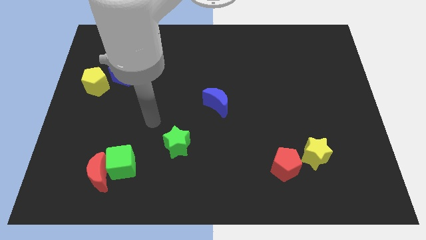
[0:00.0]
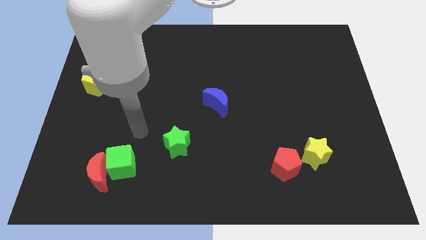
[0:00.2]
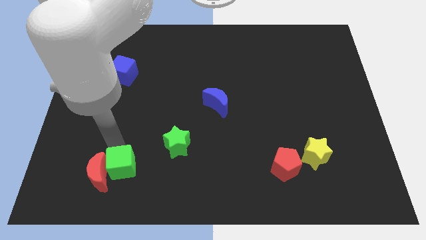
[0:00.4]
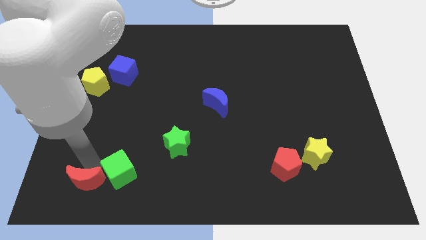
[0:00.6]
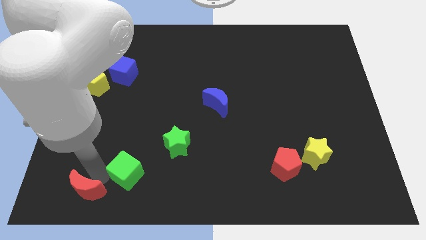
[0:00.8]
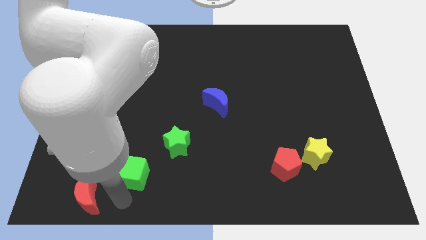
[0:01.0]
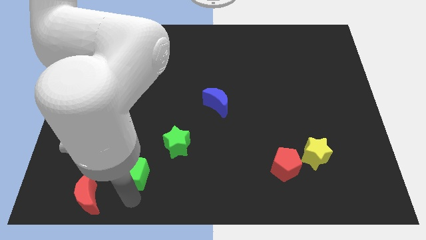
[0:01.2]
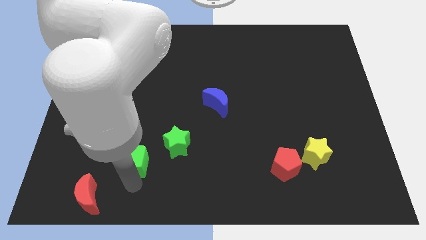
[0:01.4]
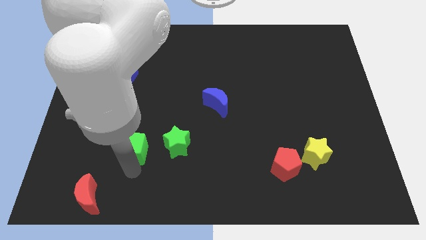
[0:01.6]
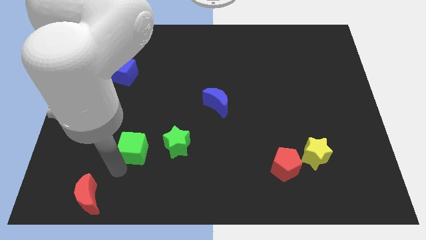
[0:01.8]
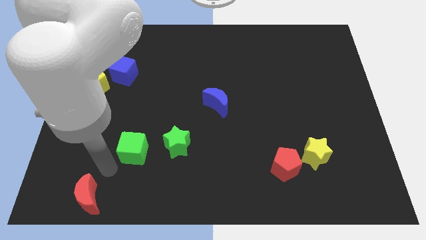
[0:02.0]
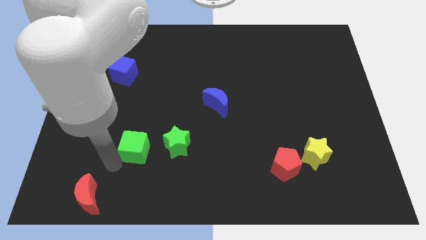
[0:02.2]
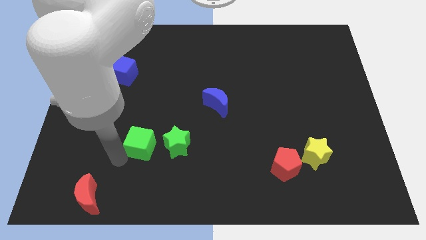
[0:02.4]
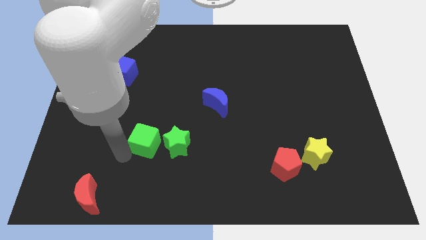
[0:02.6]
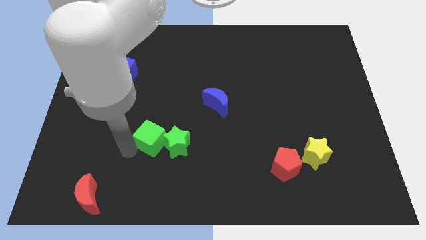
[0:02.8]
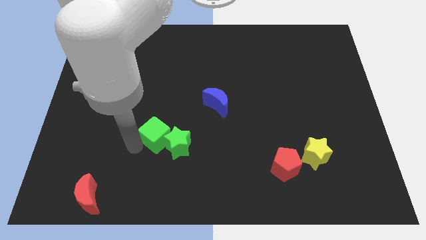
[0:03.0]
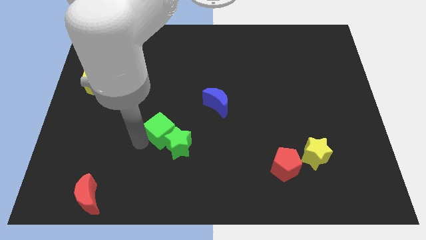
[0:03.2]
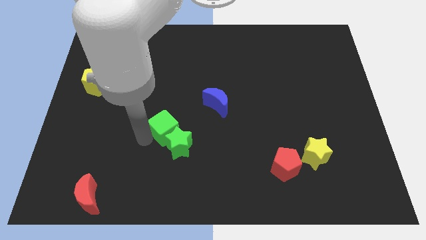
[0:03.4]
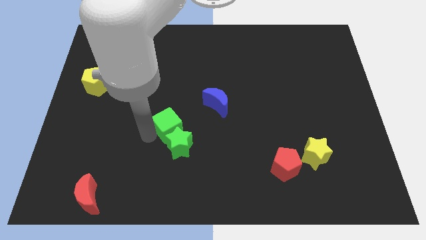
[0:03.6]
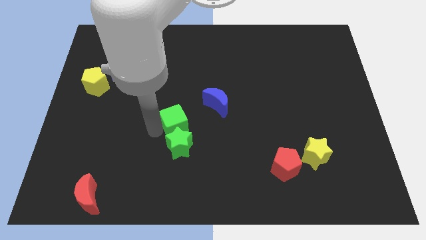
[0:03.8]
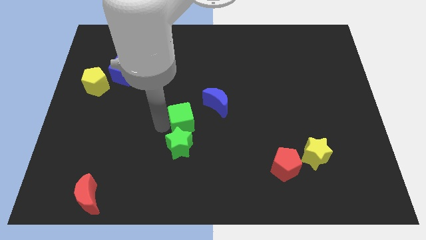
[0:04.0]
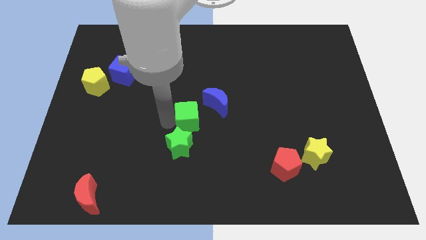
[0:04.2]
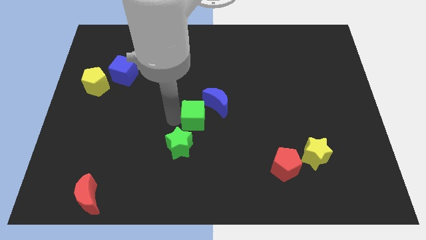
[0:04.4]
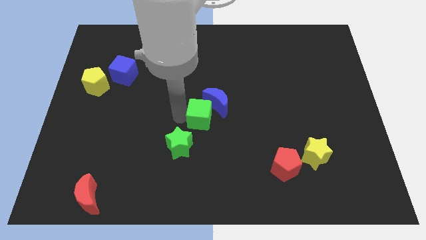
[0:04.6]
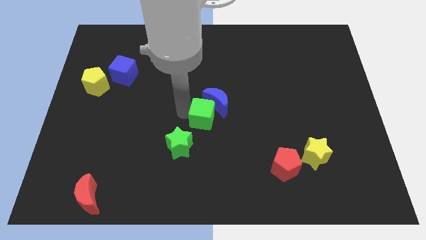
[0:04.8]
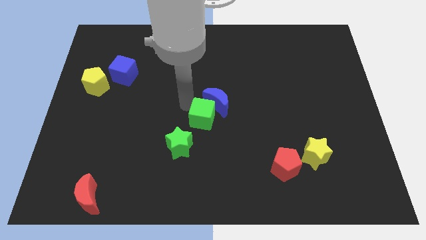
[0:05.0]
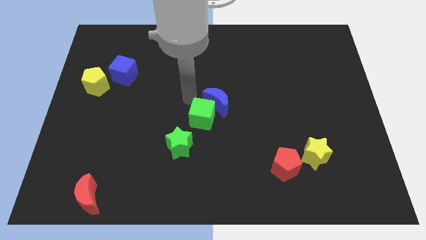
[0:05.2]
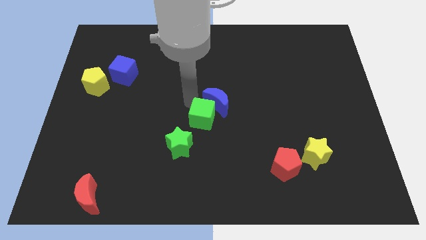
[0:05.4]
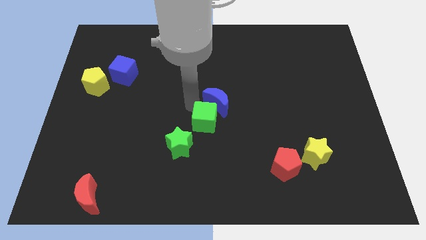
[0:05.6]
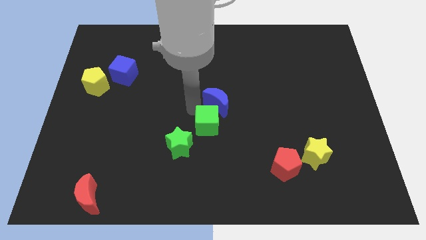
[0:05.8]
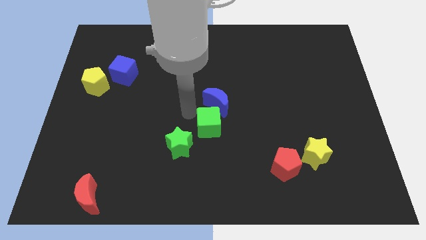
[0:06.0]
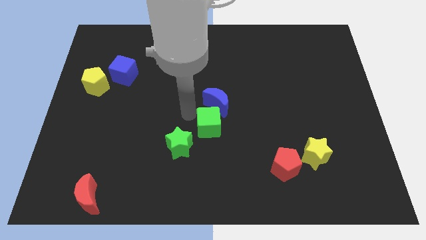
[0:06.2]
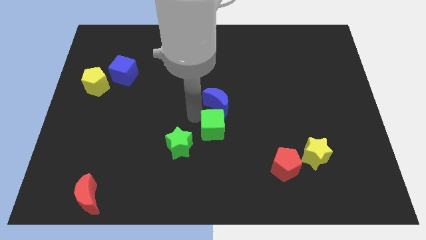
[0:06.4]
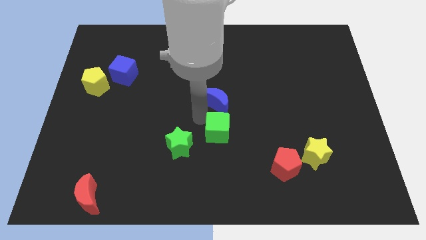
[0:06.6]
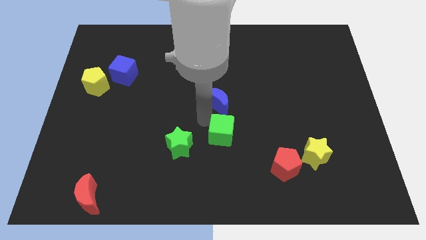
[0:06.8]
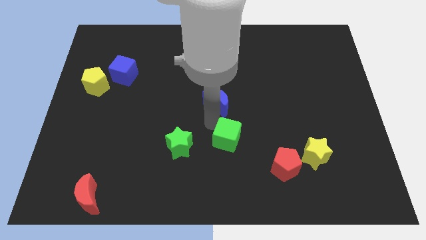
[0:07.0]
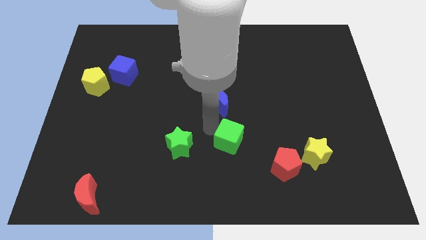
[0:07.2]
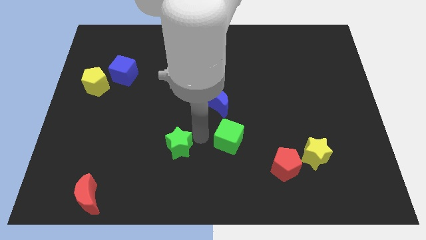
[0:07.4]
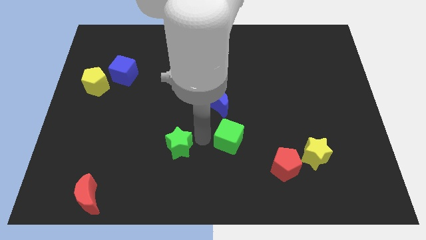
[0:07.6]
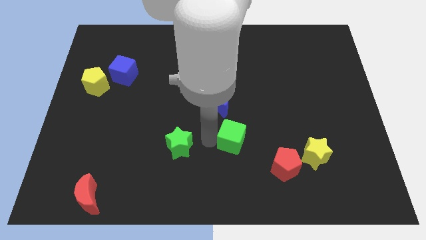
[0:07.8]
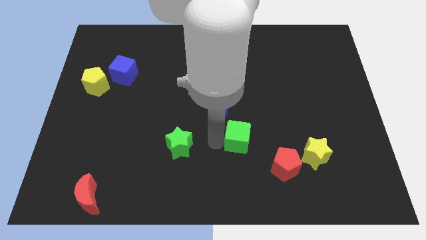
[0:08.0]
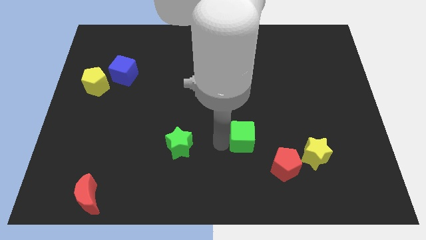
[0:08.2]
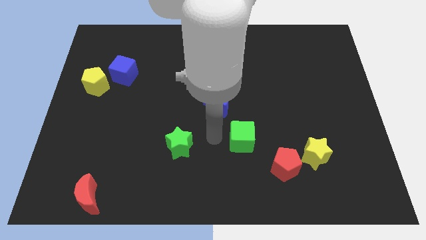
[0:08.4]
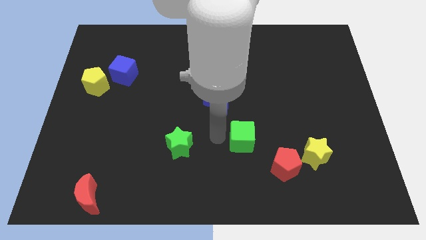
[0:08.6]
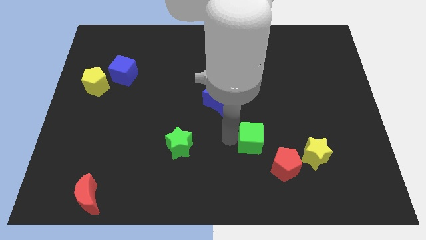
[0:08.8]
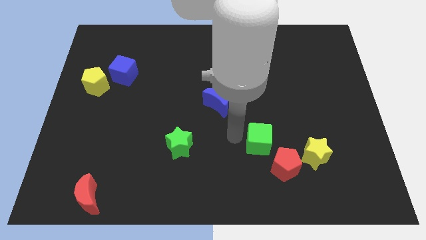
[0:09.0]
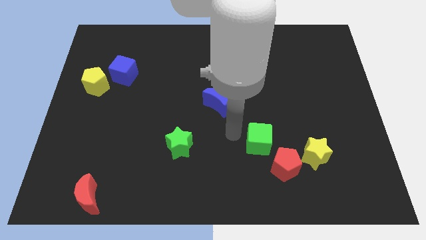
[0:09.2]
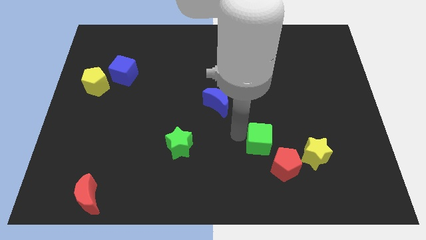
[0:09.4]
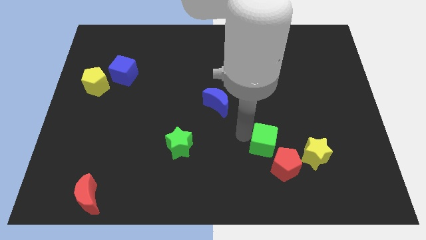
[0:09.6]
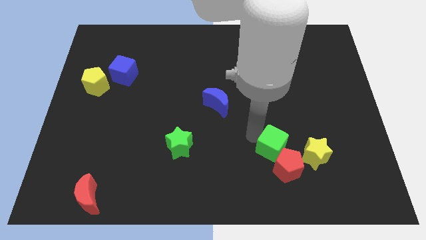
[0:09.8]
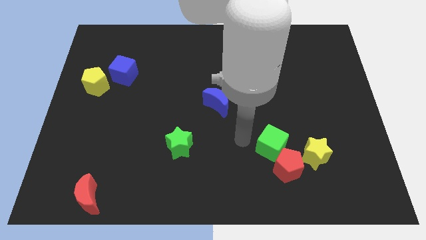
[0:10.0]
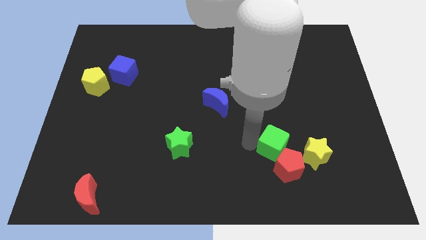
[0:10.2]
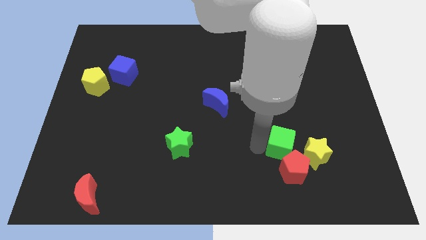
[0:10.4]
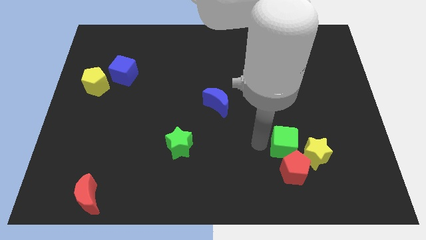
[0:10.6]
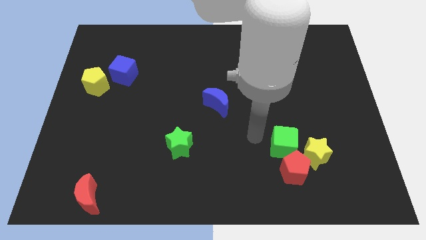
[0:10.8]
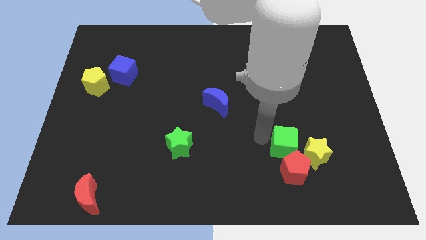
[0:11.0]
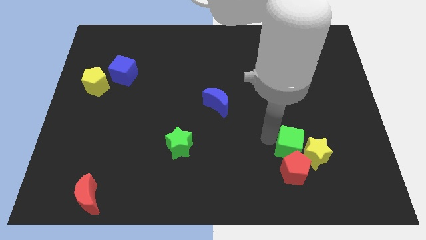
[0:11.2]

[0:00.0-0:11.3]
push the green cube towards the yellow star

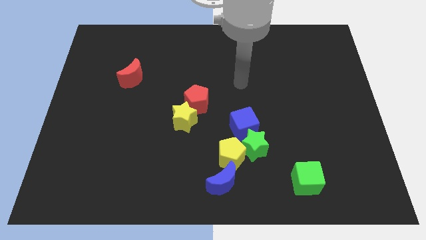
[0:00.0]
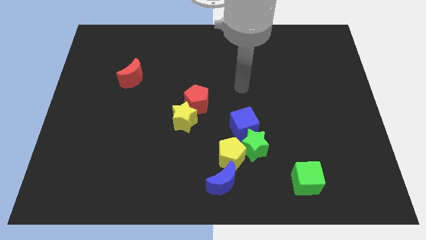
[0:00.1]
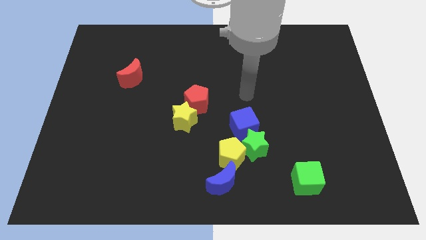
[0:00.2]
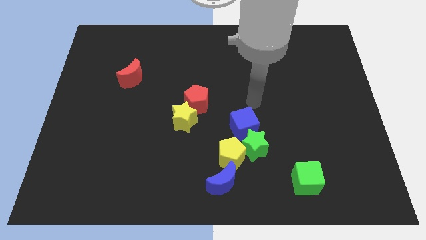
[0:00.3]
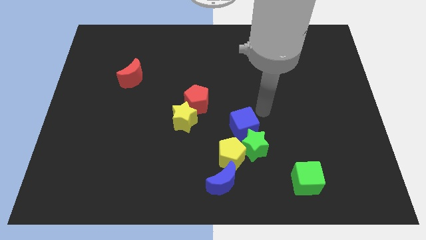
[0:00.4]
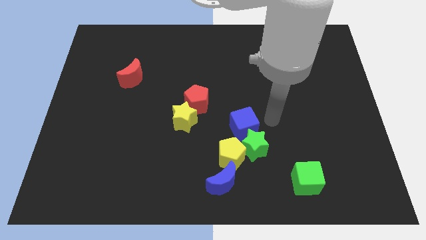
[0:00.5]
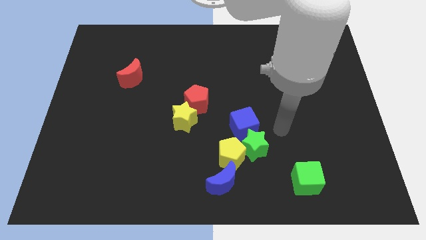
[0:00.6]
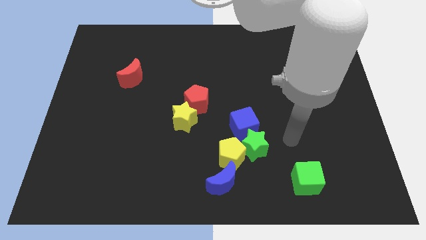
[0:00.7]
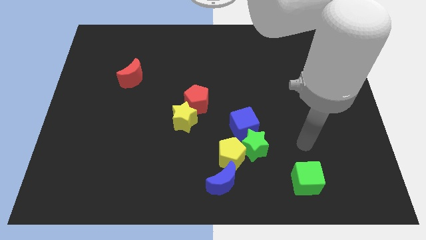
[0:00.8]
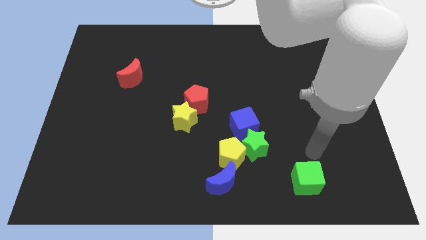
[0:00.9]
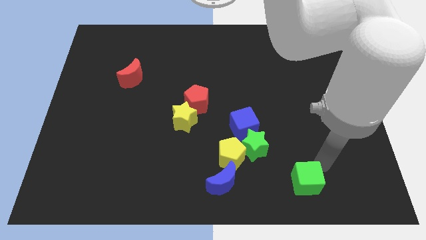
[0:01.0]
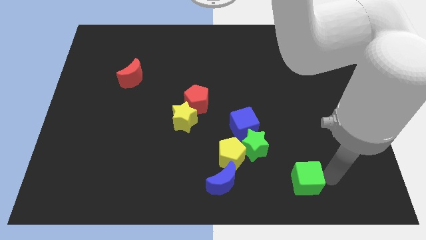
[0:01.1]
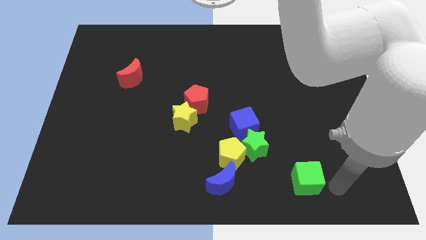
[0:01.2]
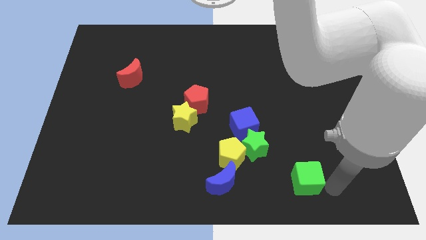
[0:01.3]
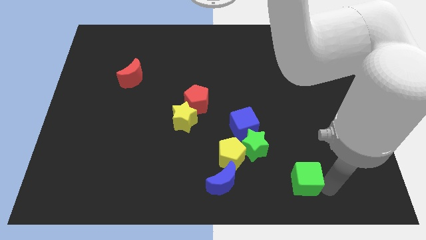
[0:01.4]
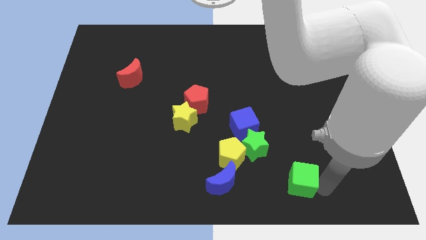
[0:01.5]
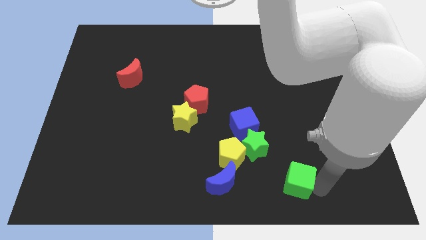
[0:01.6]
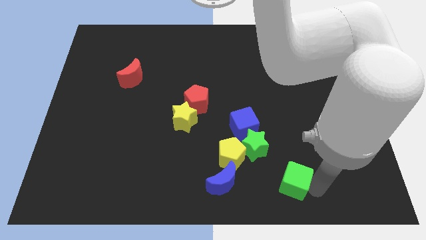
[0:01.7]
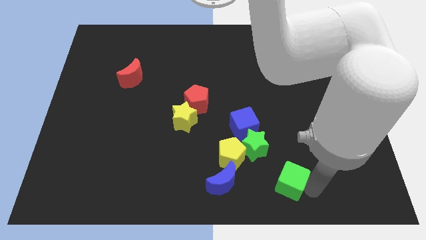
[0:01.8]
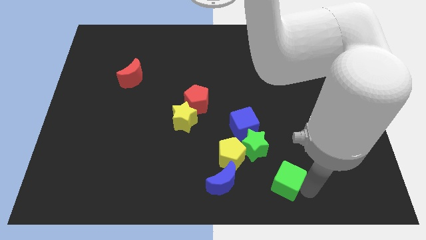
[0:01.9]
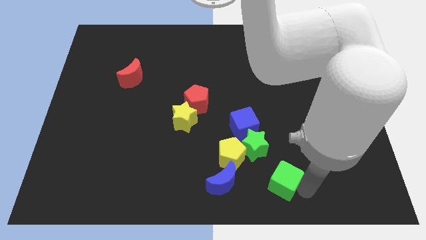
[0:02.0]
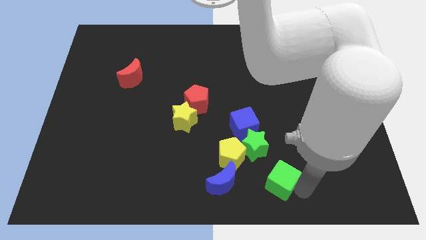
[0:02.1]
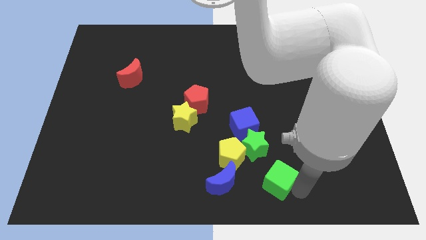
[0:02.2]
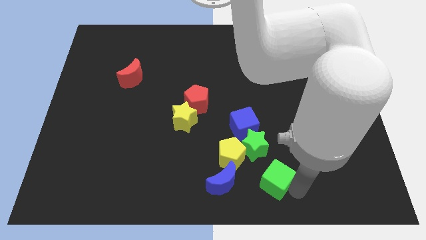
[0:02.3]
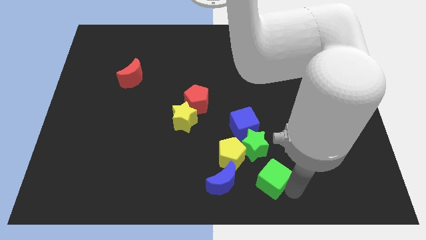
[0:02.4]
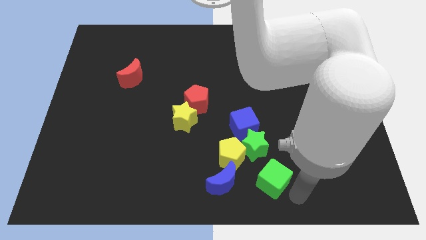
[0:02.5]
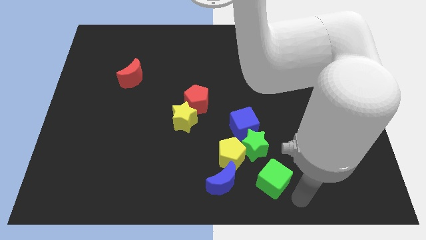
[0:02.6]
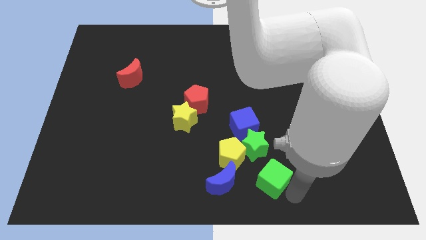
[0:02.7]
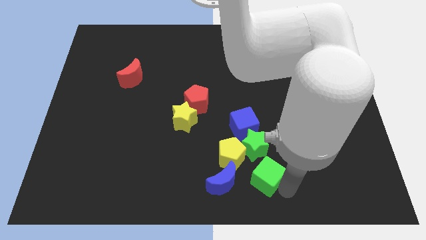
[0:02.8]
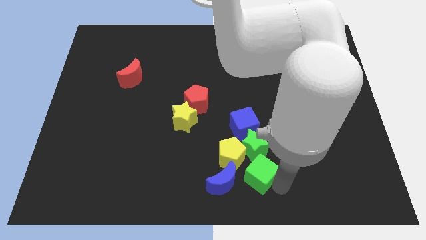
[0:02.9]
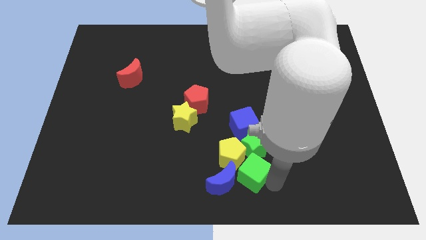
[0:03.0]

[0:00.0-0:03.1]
slide the green cube next to the yellow pentagon
